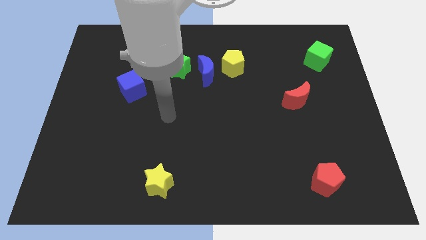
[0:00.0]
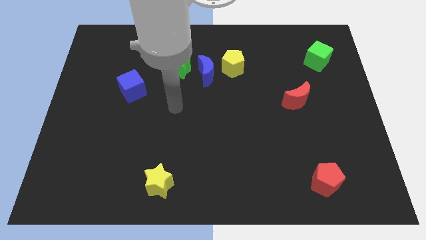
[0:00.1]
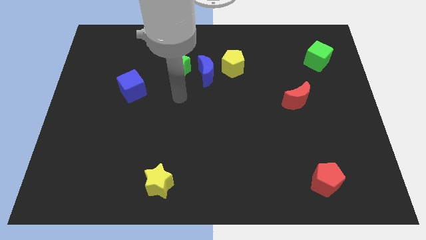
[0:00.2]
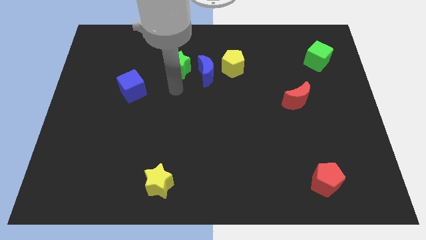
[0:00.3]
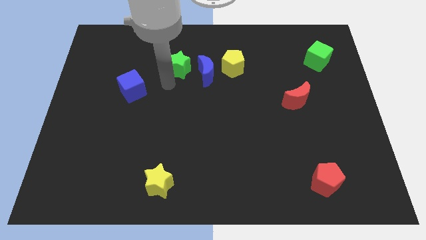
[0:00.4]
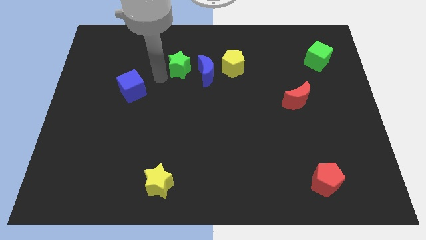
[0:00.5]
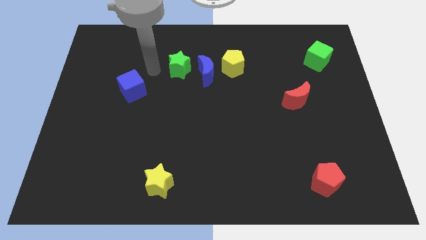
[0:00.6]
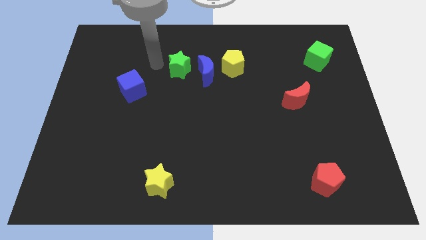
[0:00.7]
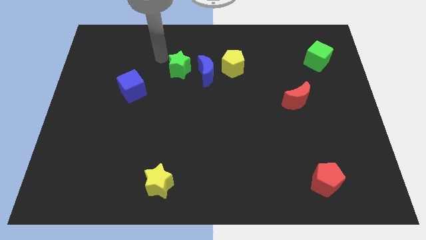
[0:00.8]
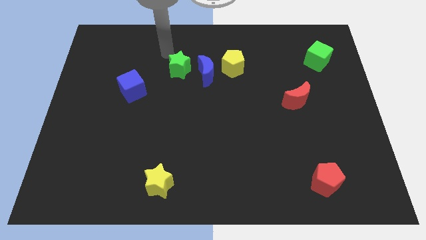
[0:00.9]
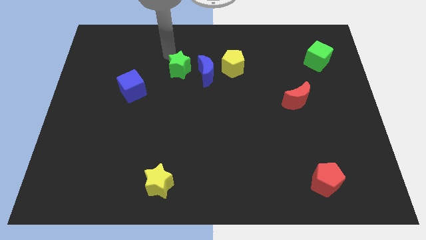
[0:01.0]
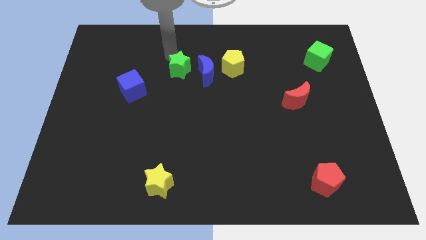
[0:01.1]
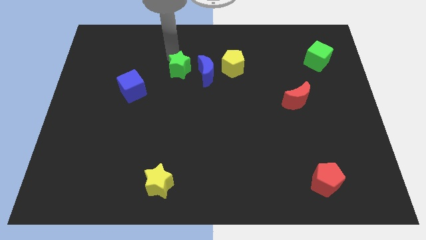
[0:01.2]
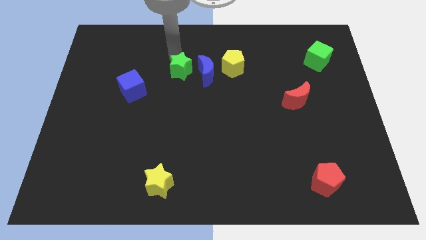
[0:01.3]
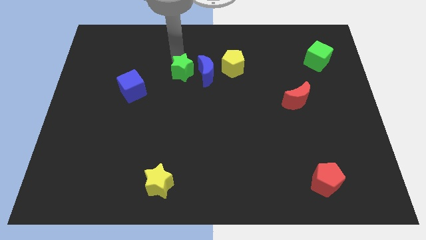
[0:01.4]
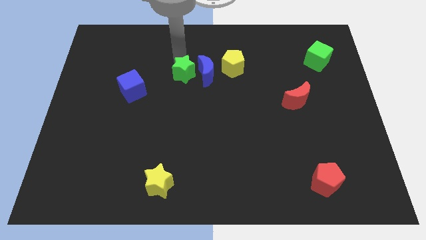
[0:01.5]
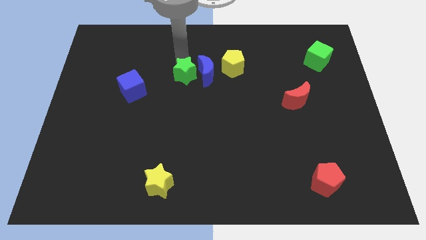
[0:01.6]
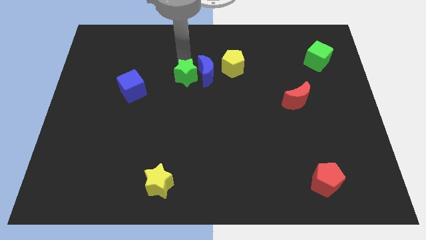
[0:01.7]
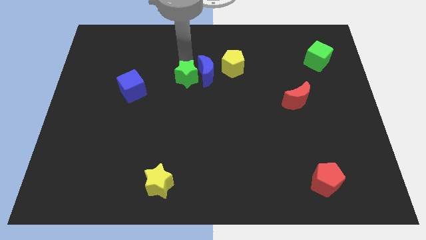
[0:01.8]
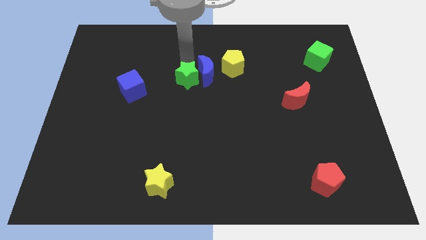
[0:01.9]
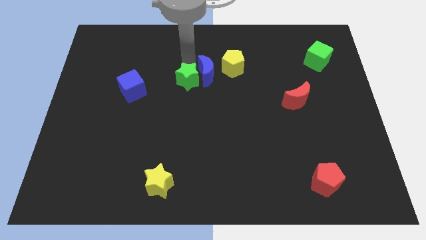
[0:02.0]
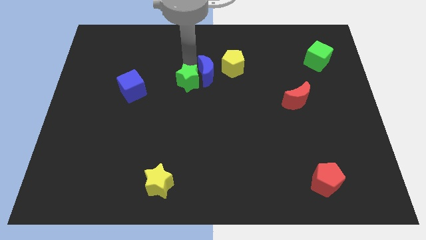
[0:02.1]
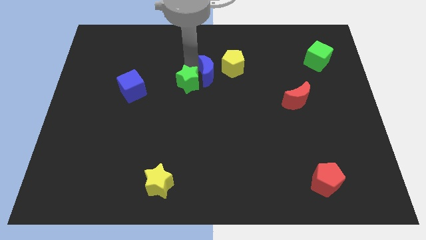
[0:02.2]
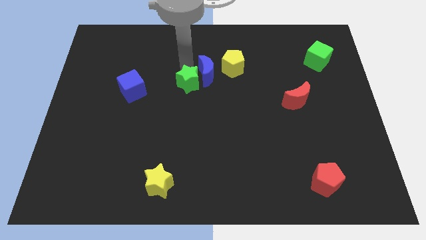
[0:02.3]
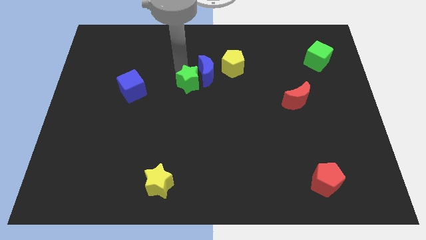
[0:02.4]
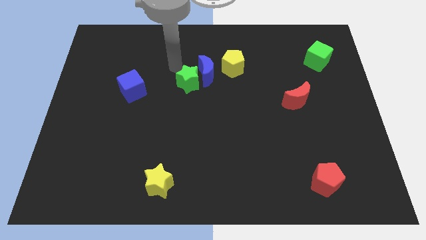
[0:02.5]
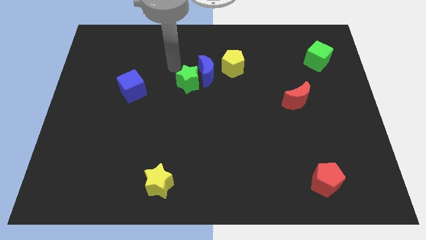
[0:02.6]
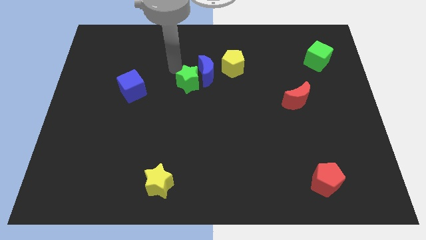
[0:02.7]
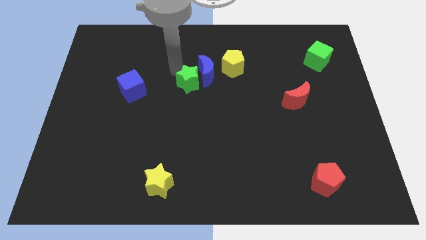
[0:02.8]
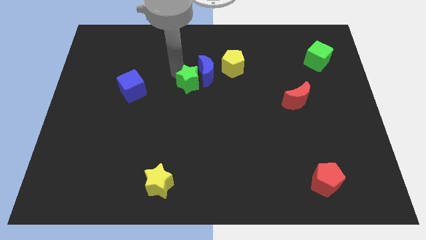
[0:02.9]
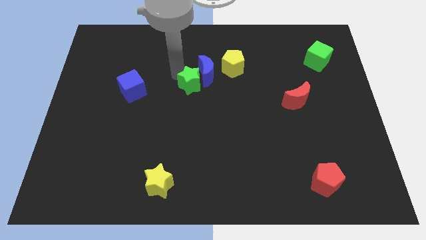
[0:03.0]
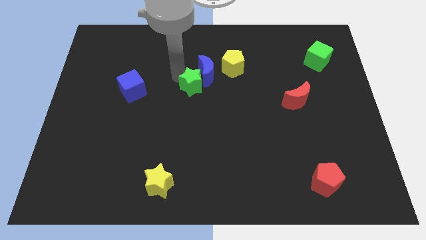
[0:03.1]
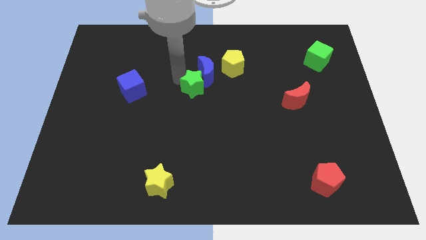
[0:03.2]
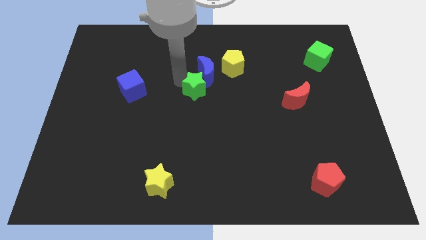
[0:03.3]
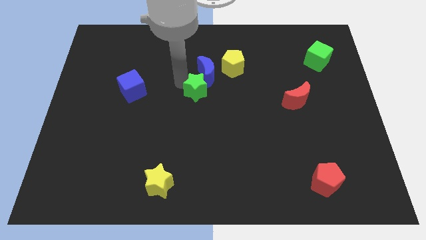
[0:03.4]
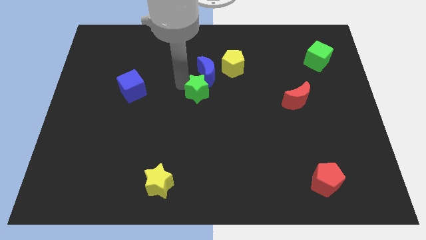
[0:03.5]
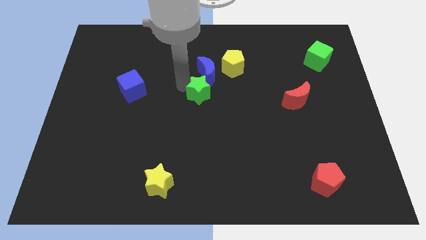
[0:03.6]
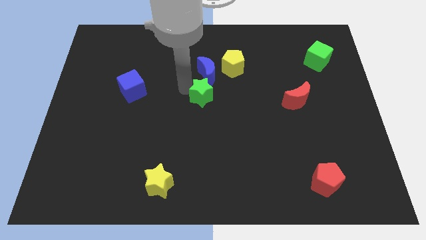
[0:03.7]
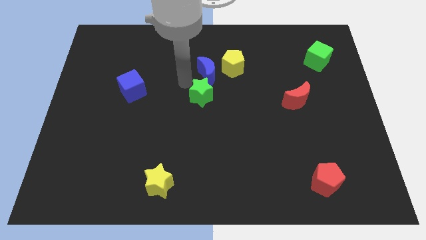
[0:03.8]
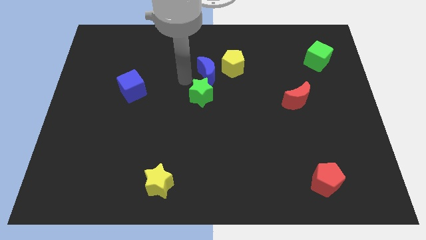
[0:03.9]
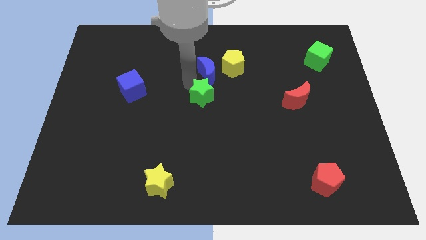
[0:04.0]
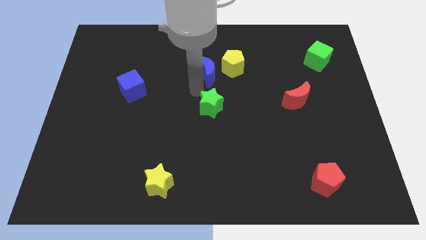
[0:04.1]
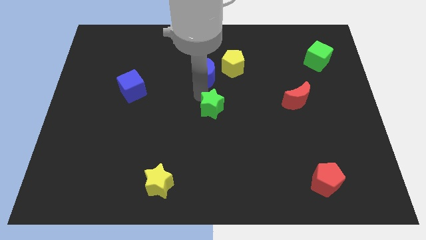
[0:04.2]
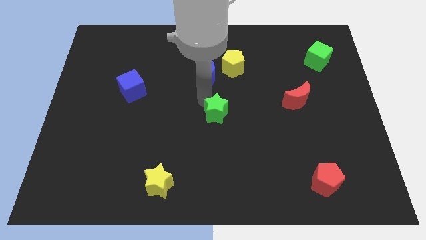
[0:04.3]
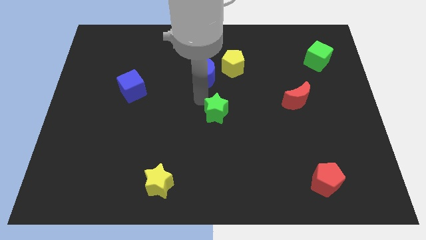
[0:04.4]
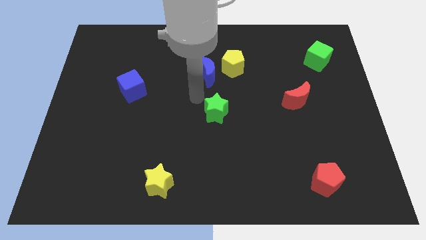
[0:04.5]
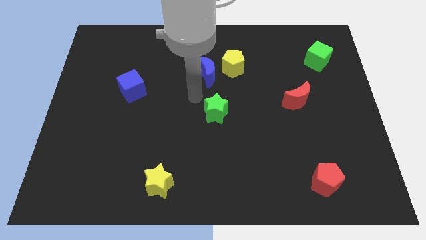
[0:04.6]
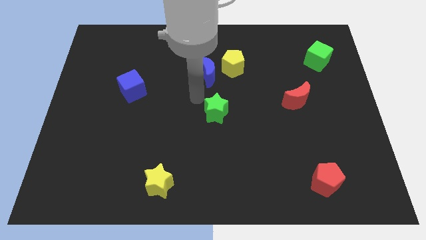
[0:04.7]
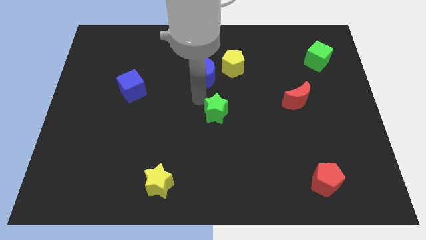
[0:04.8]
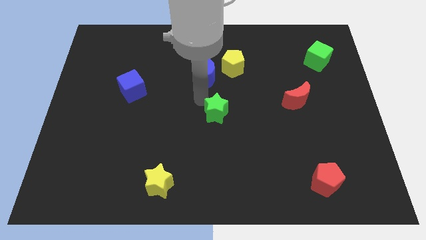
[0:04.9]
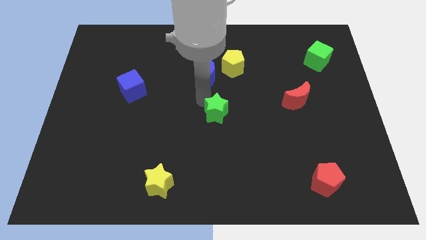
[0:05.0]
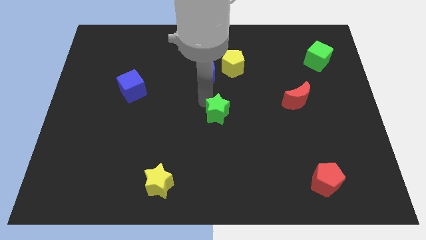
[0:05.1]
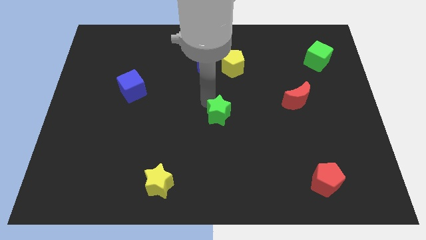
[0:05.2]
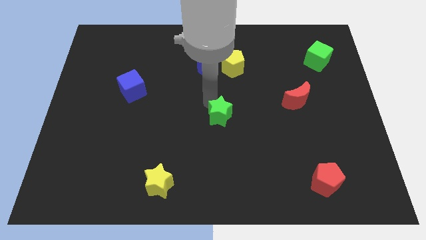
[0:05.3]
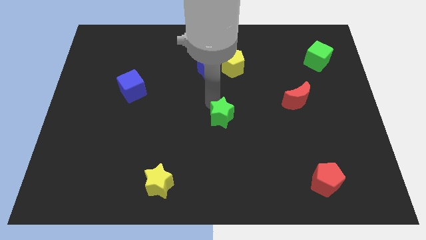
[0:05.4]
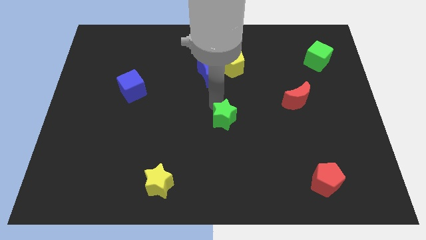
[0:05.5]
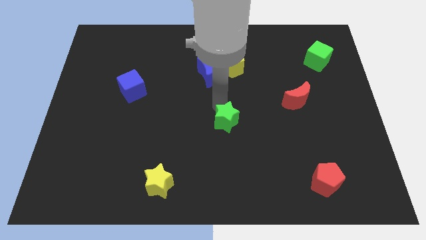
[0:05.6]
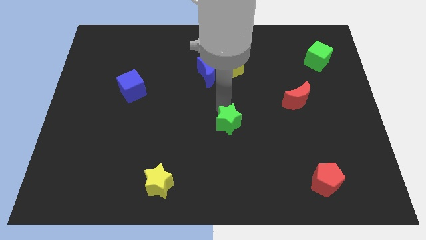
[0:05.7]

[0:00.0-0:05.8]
push the green star downwards and right diagonally

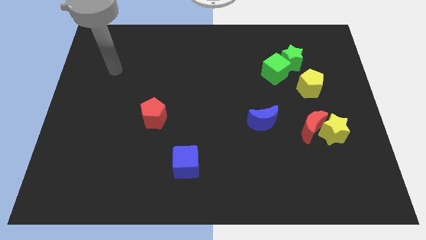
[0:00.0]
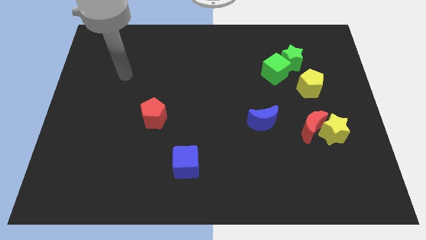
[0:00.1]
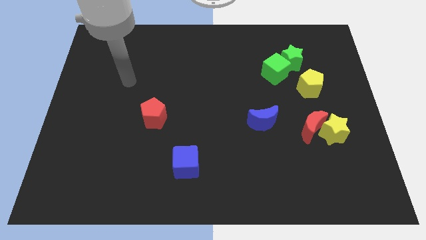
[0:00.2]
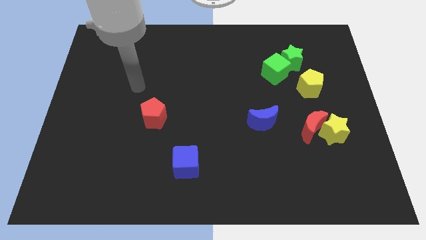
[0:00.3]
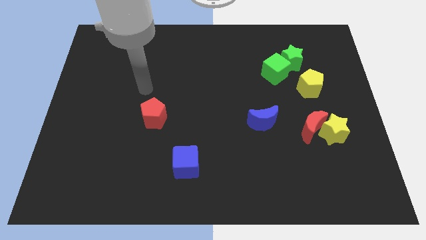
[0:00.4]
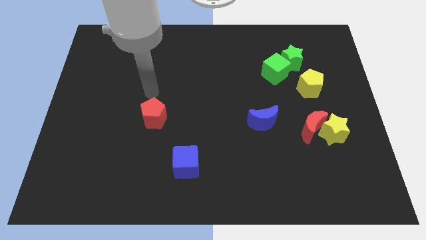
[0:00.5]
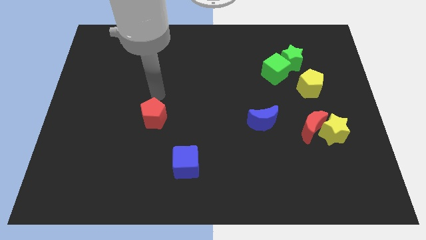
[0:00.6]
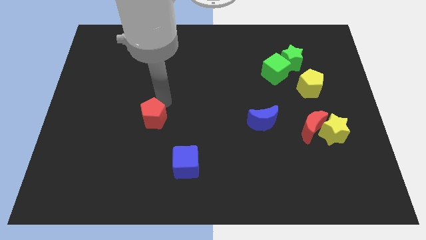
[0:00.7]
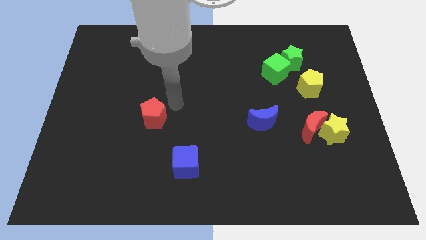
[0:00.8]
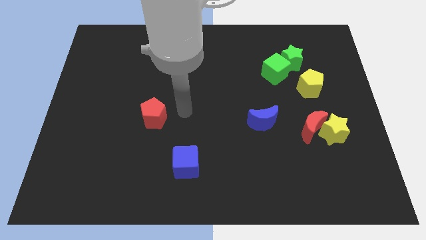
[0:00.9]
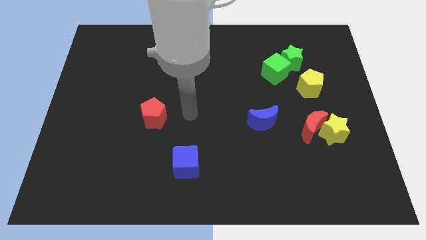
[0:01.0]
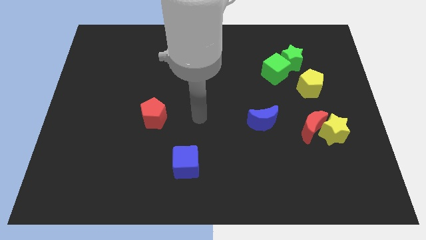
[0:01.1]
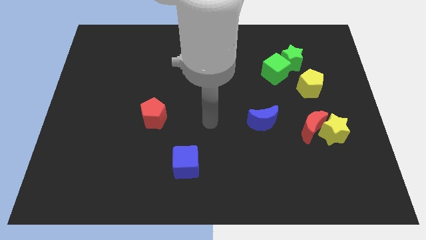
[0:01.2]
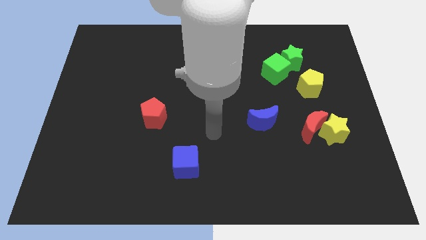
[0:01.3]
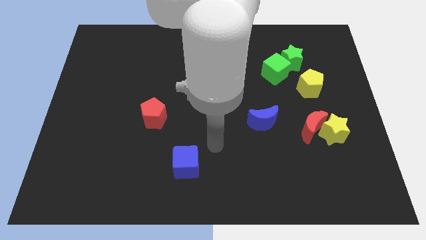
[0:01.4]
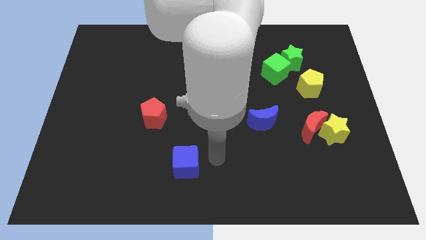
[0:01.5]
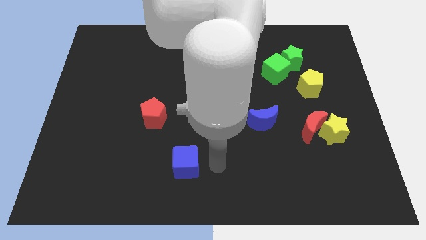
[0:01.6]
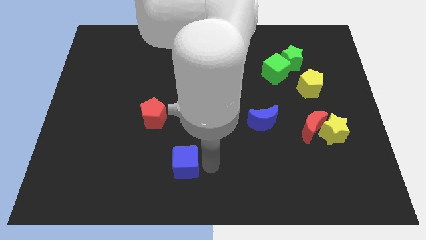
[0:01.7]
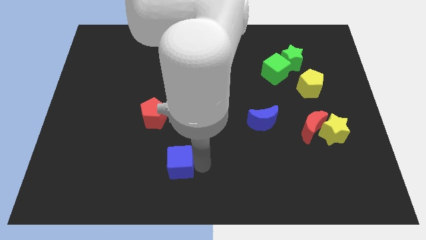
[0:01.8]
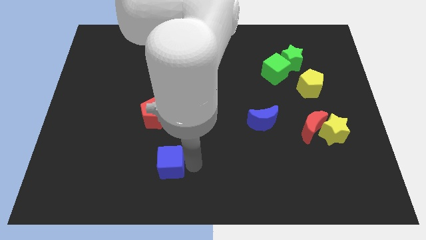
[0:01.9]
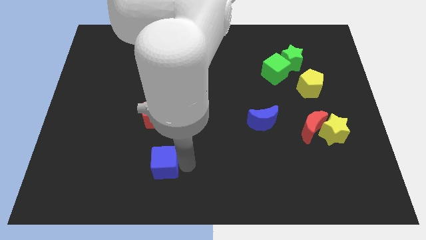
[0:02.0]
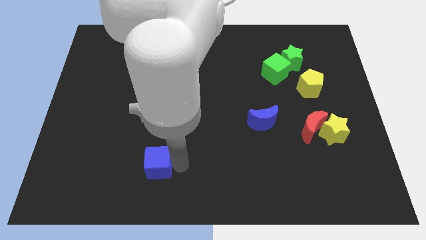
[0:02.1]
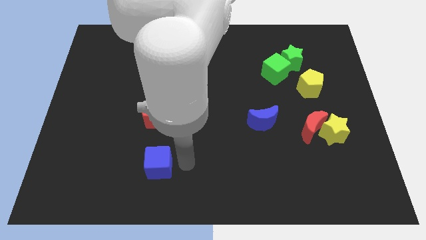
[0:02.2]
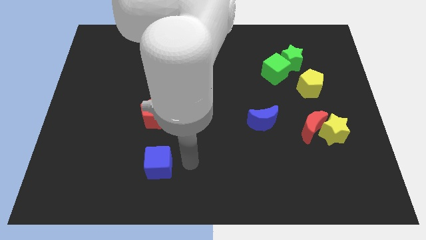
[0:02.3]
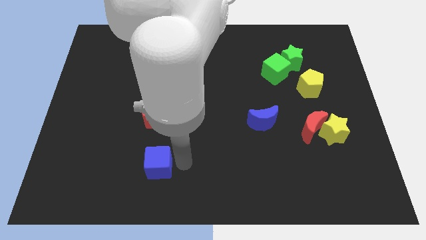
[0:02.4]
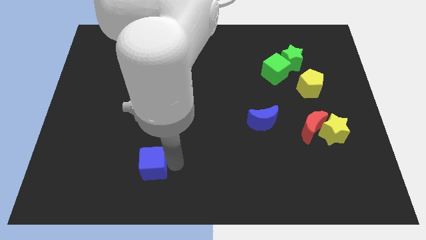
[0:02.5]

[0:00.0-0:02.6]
push the blue cube left a little bit
